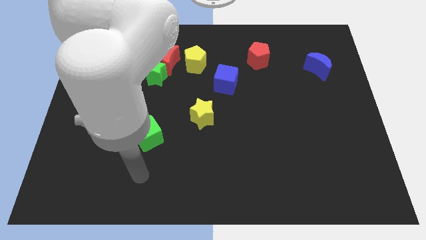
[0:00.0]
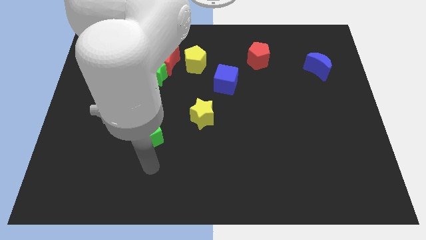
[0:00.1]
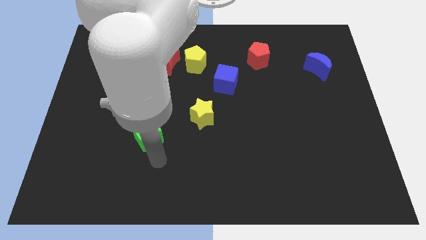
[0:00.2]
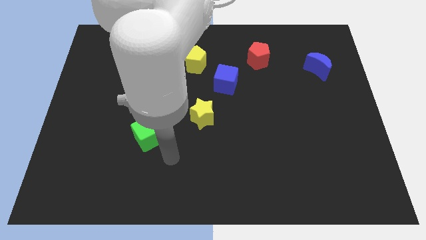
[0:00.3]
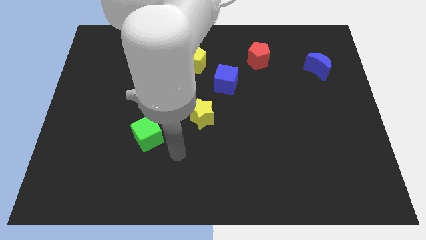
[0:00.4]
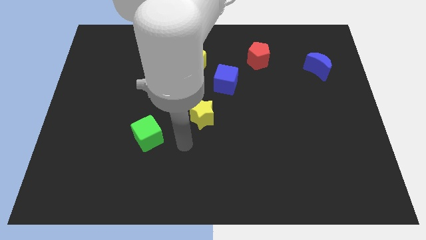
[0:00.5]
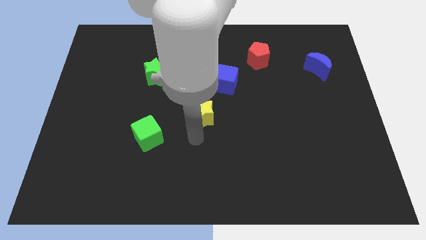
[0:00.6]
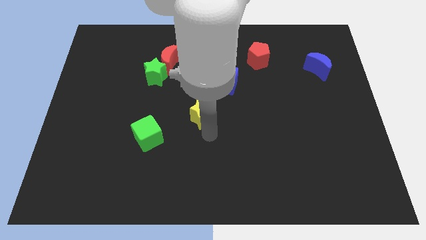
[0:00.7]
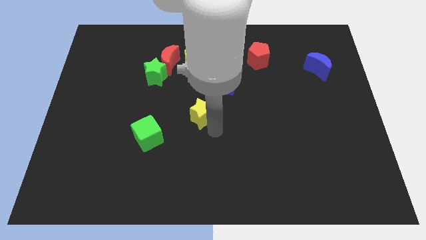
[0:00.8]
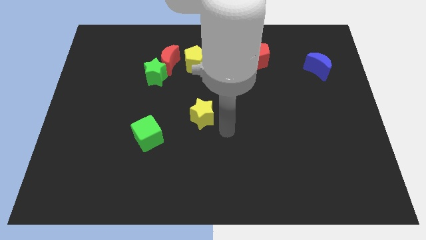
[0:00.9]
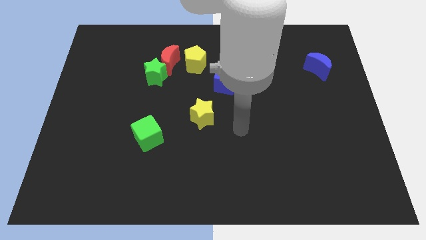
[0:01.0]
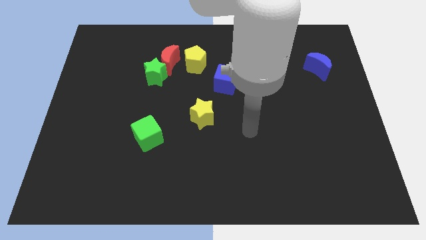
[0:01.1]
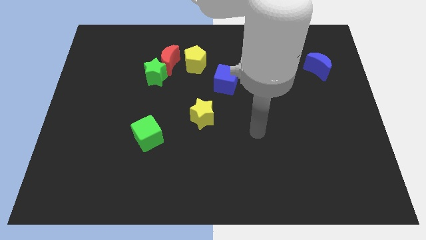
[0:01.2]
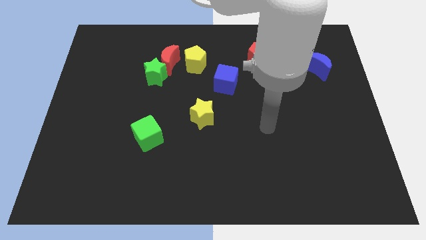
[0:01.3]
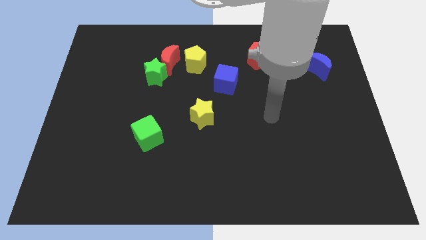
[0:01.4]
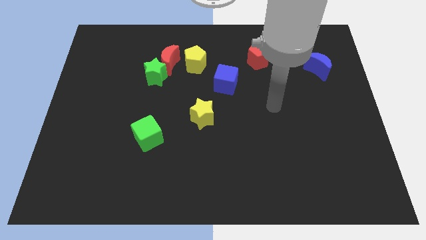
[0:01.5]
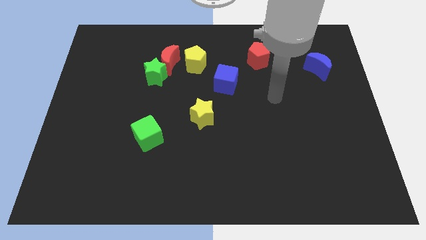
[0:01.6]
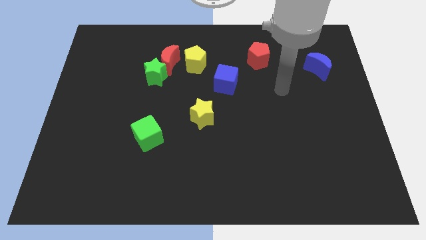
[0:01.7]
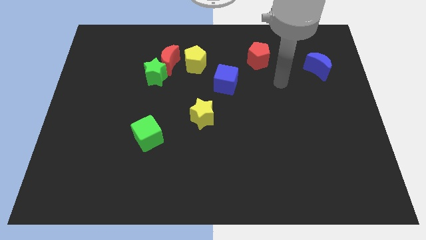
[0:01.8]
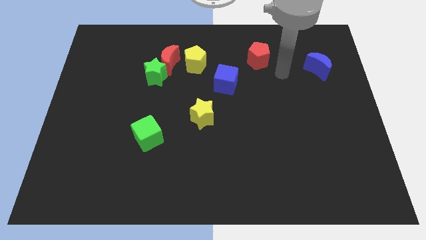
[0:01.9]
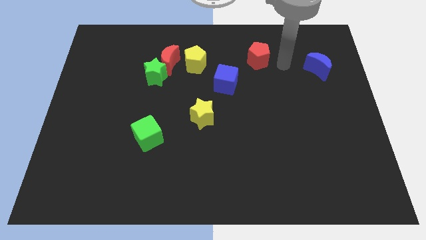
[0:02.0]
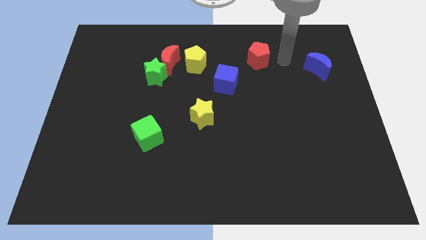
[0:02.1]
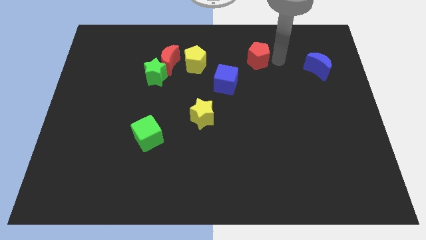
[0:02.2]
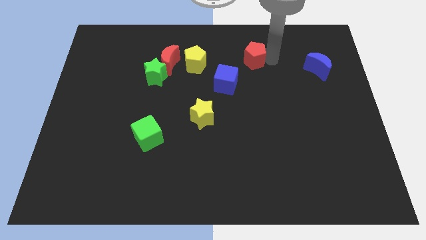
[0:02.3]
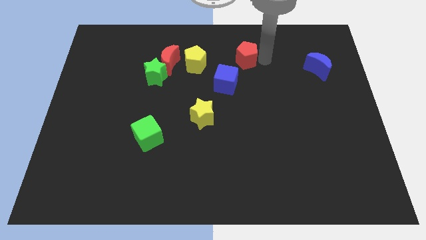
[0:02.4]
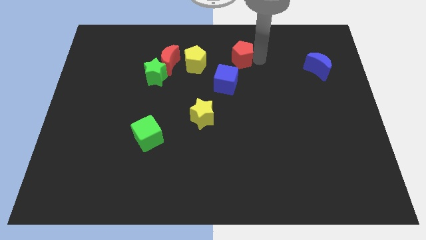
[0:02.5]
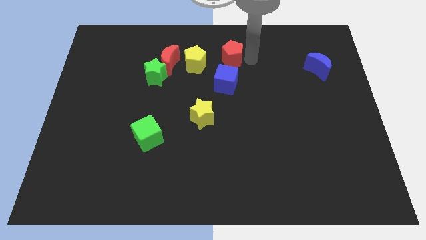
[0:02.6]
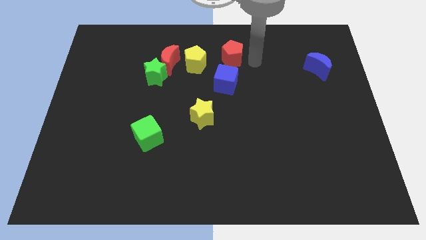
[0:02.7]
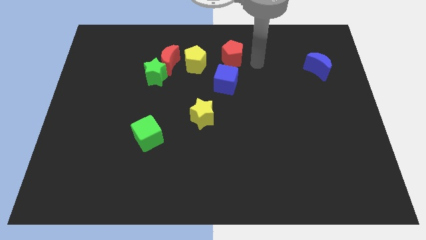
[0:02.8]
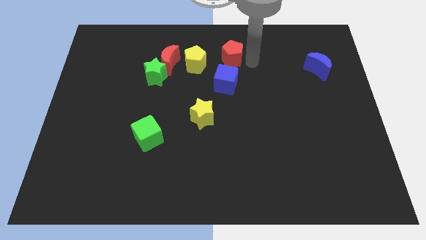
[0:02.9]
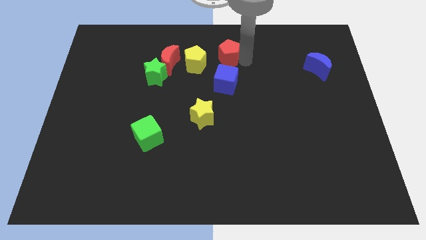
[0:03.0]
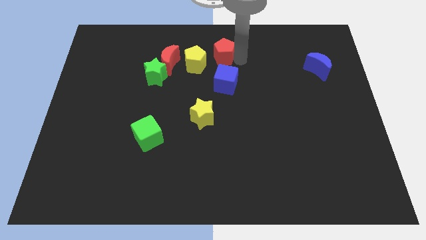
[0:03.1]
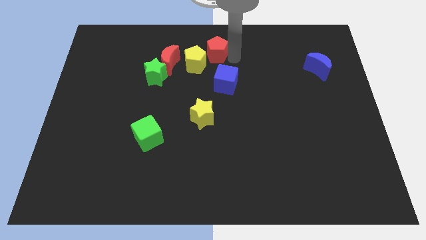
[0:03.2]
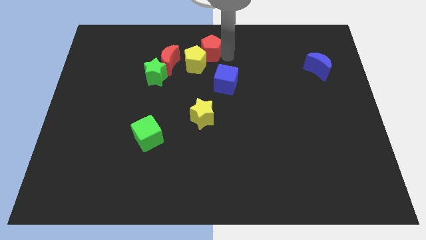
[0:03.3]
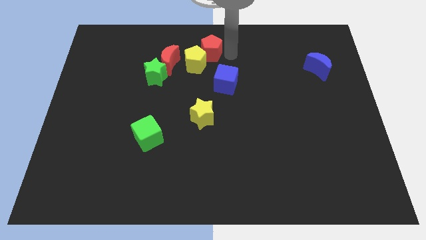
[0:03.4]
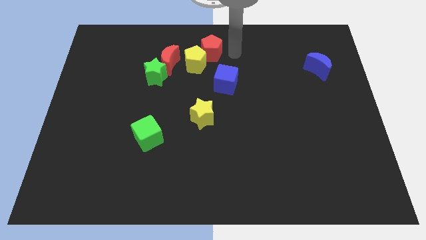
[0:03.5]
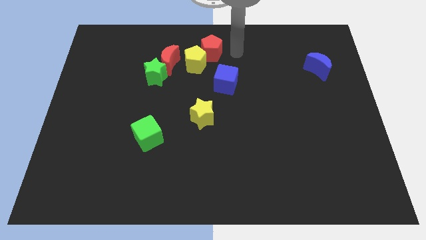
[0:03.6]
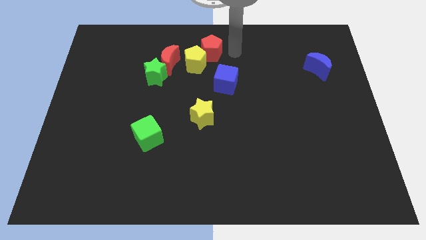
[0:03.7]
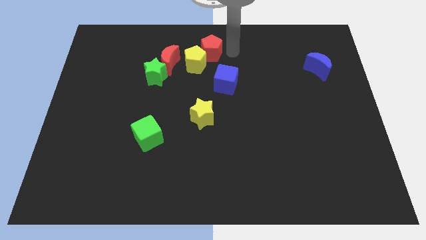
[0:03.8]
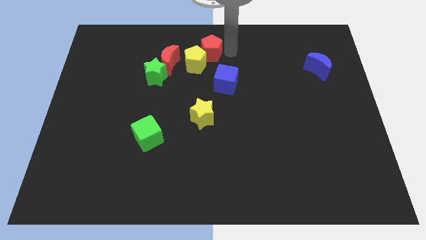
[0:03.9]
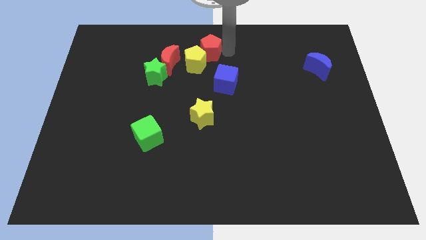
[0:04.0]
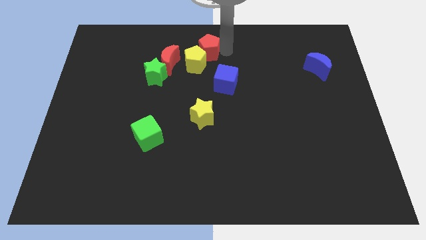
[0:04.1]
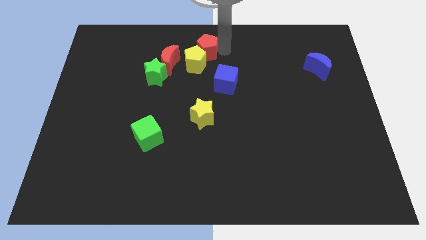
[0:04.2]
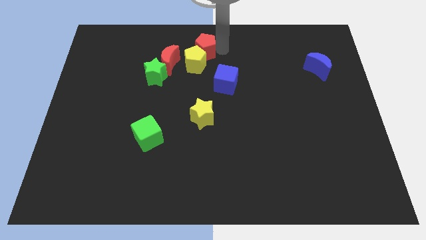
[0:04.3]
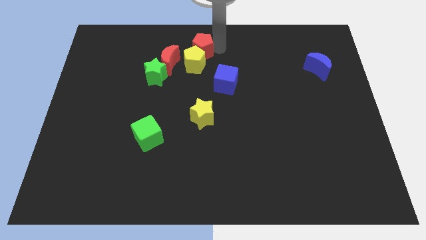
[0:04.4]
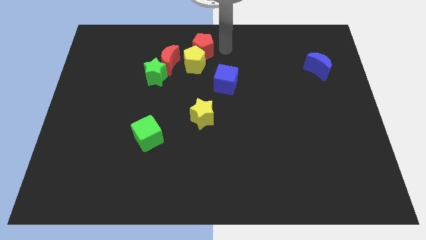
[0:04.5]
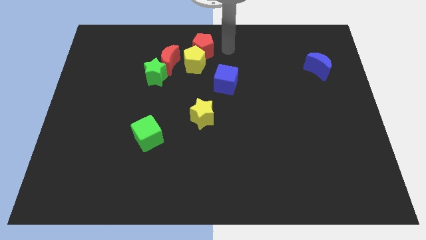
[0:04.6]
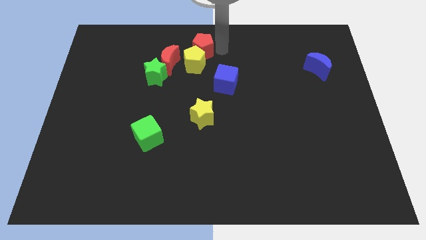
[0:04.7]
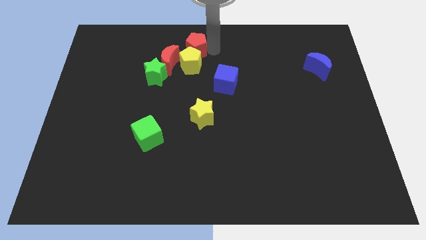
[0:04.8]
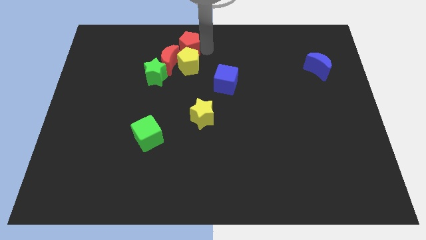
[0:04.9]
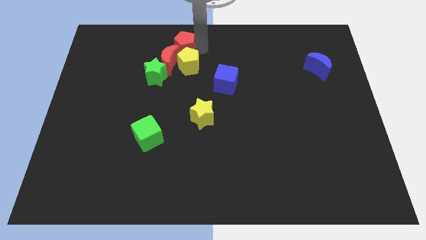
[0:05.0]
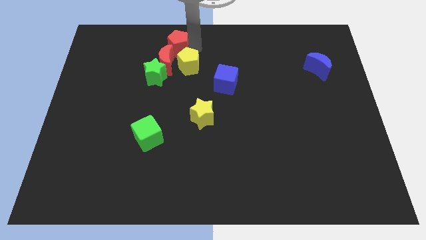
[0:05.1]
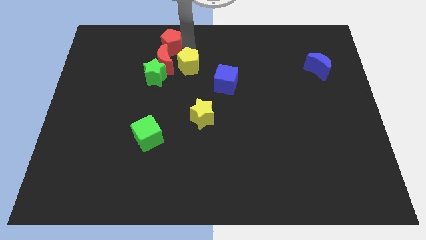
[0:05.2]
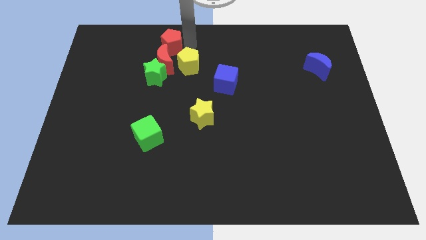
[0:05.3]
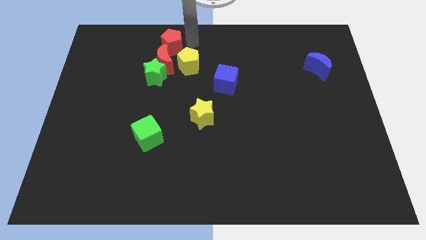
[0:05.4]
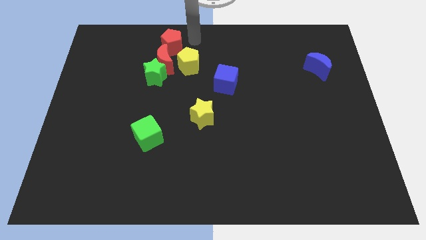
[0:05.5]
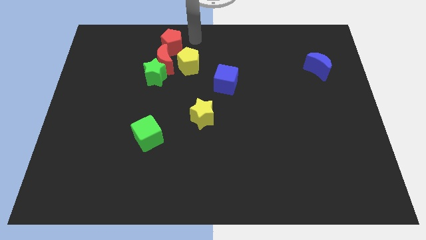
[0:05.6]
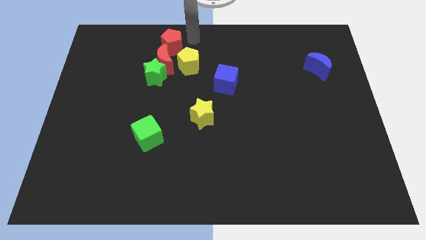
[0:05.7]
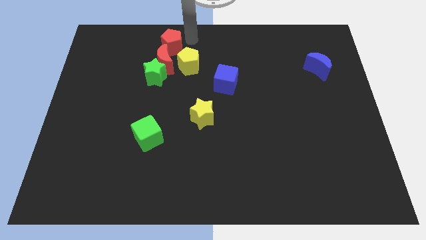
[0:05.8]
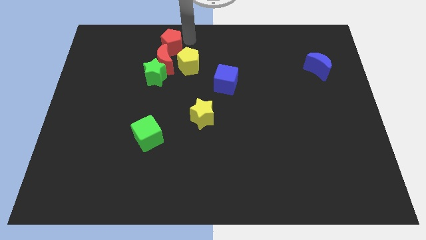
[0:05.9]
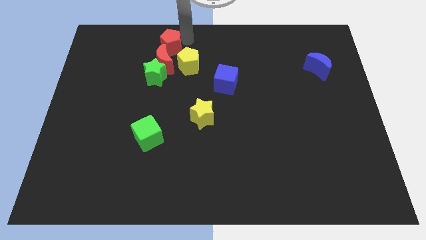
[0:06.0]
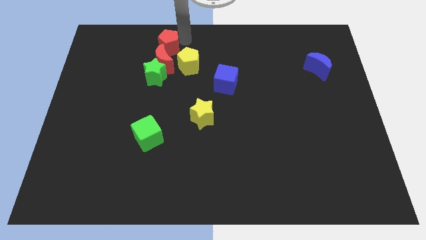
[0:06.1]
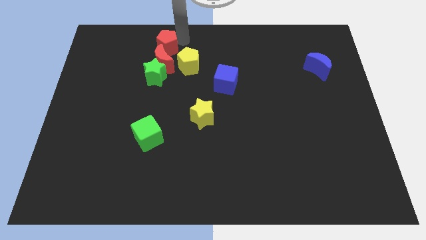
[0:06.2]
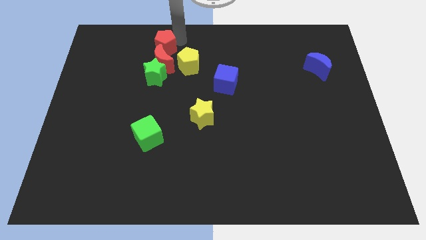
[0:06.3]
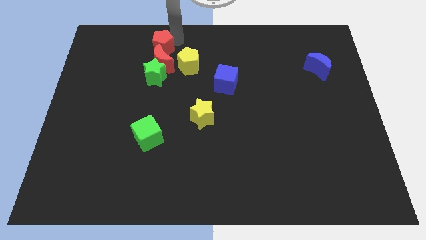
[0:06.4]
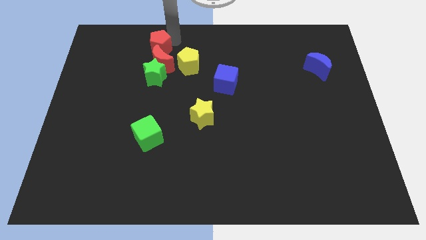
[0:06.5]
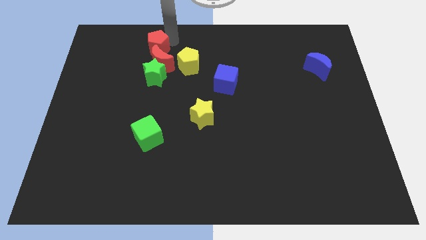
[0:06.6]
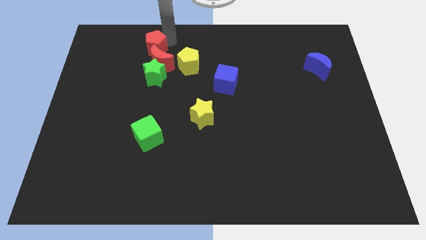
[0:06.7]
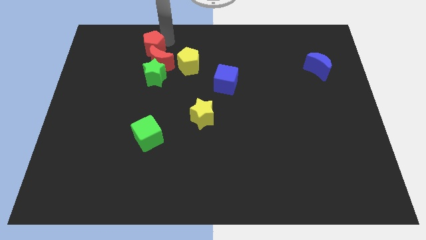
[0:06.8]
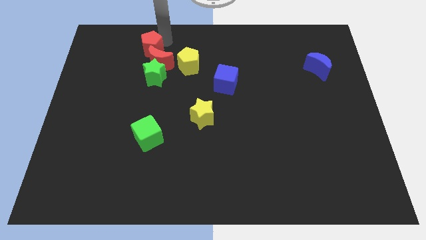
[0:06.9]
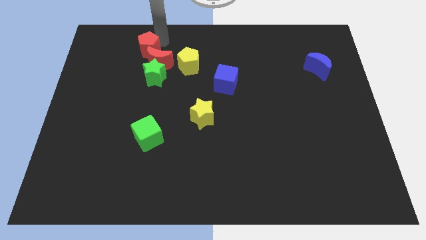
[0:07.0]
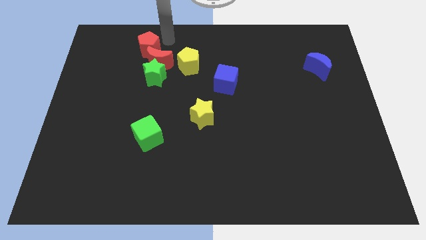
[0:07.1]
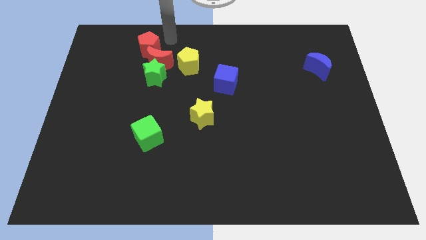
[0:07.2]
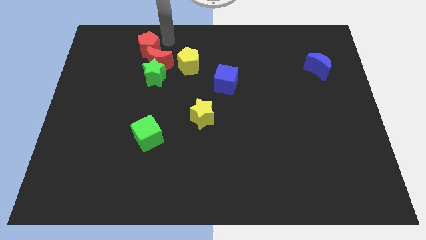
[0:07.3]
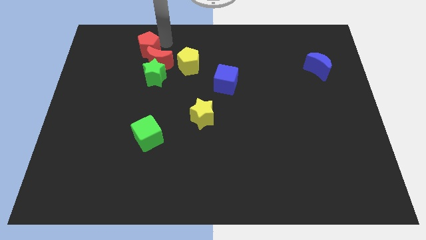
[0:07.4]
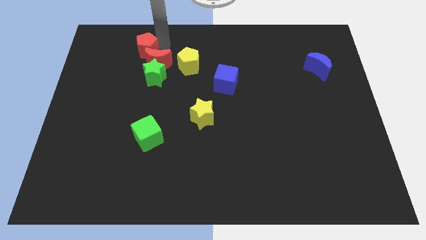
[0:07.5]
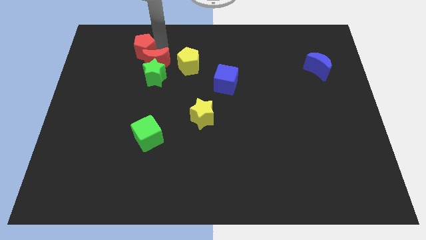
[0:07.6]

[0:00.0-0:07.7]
push the red pentagon left of the red moon

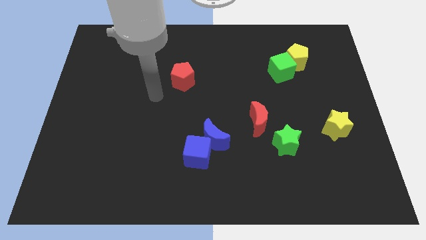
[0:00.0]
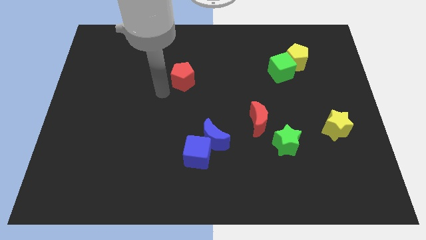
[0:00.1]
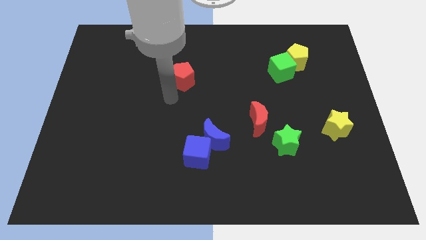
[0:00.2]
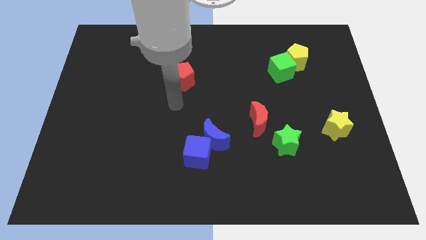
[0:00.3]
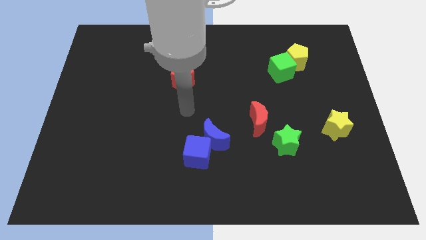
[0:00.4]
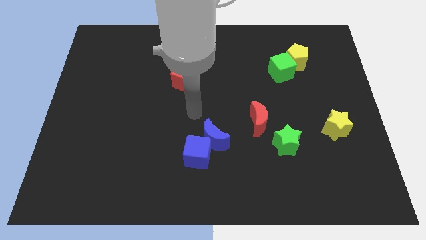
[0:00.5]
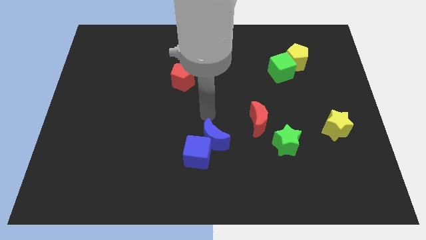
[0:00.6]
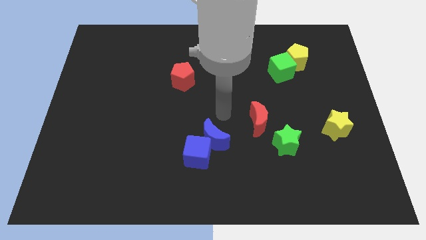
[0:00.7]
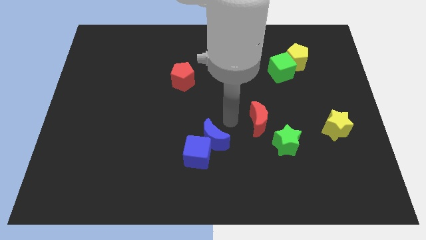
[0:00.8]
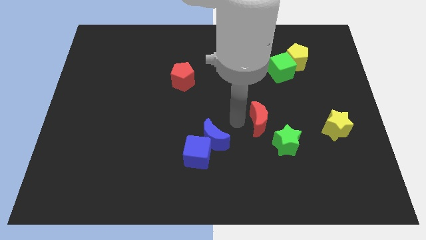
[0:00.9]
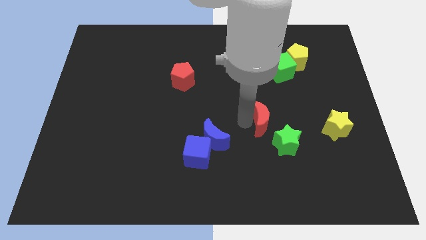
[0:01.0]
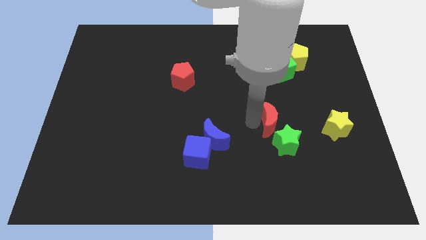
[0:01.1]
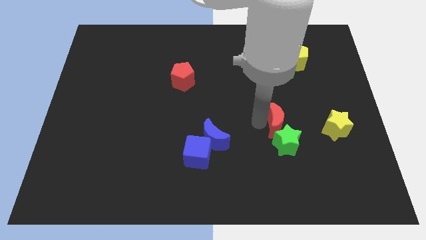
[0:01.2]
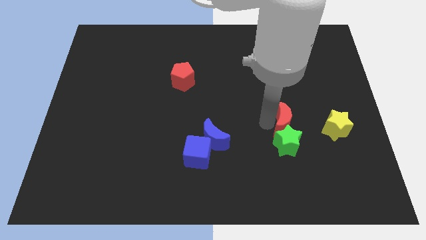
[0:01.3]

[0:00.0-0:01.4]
push the red moon diagonally up and to the right of the green star
